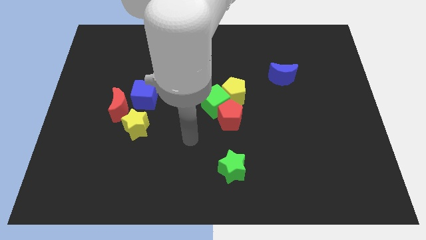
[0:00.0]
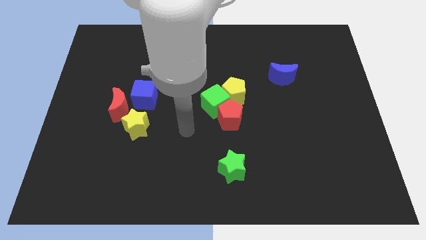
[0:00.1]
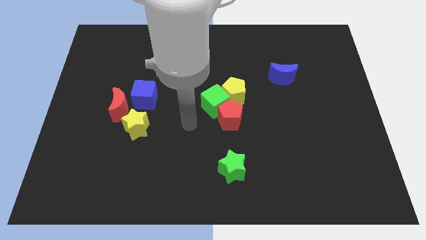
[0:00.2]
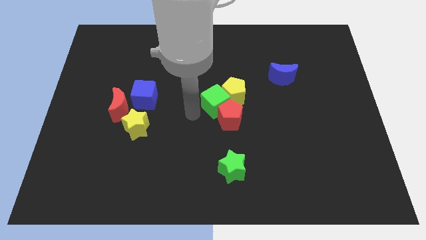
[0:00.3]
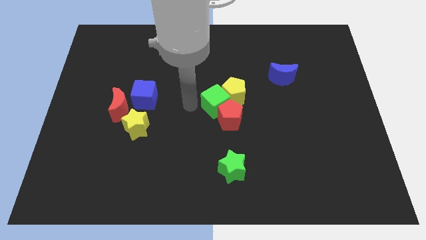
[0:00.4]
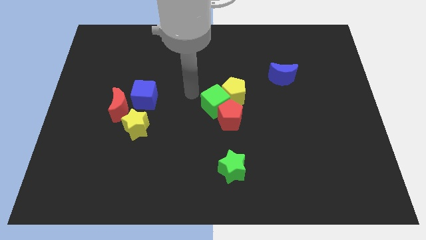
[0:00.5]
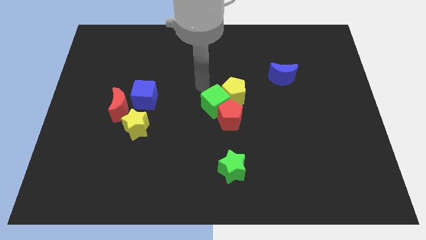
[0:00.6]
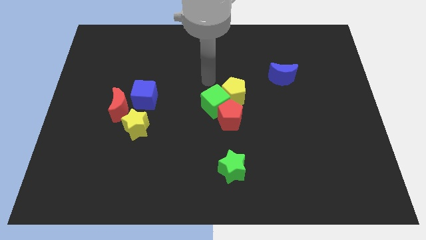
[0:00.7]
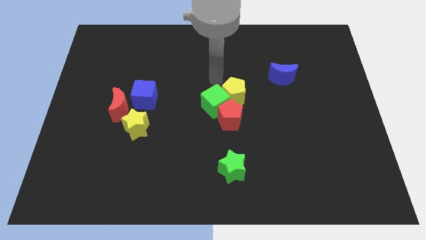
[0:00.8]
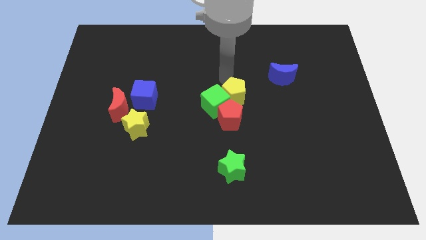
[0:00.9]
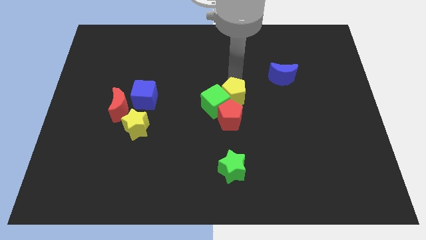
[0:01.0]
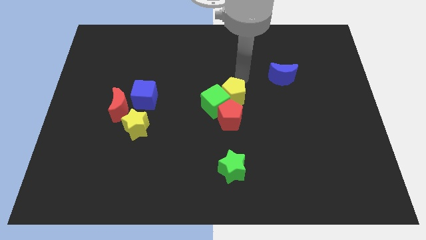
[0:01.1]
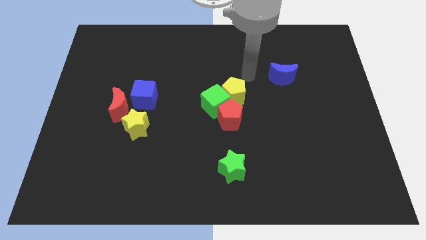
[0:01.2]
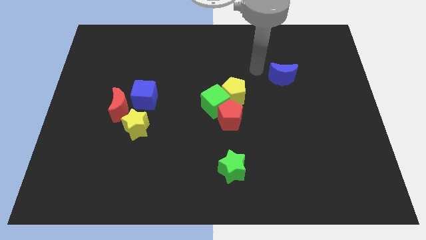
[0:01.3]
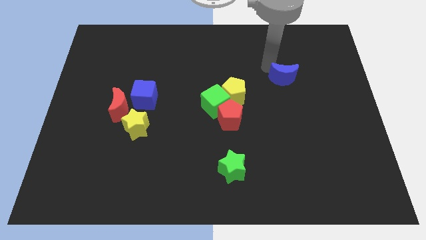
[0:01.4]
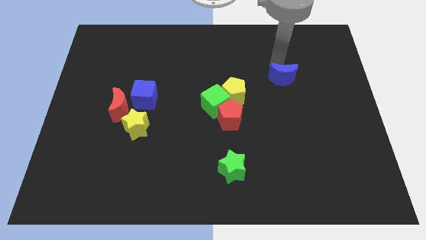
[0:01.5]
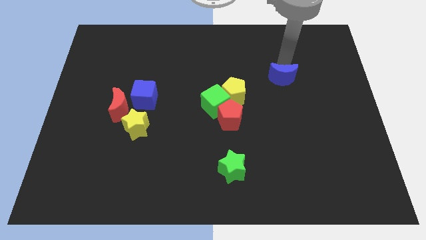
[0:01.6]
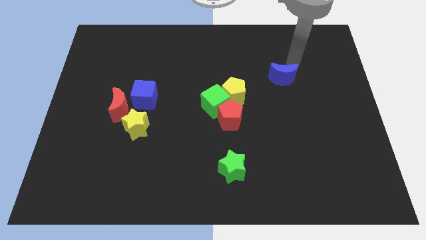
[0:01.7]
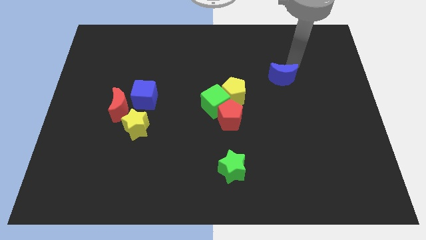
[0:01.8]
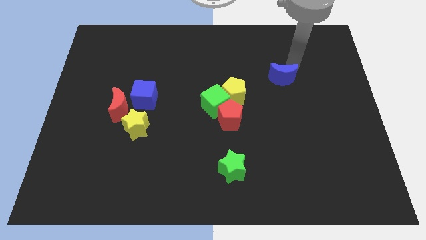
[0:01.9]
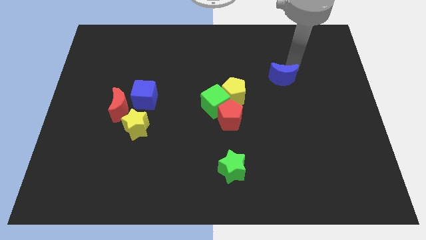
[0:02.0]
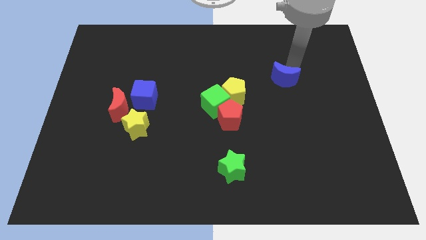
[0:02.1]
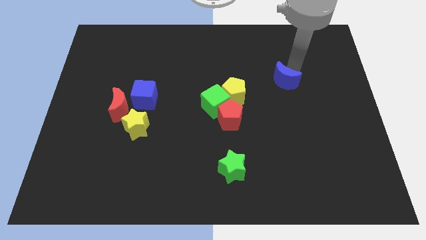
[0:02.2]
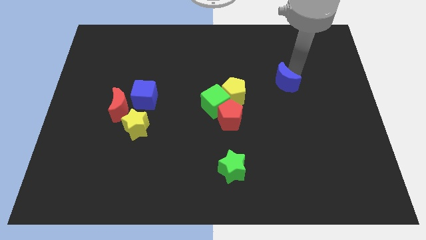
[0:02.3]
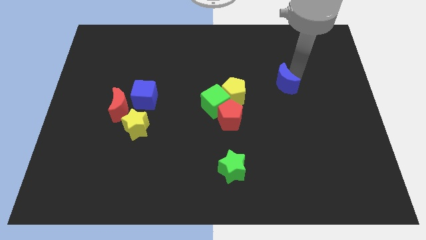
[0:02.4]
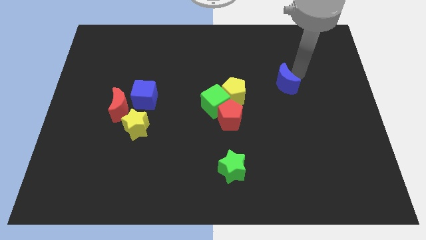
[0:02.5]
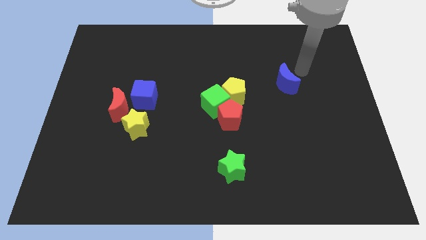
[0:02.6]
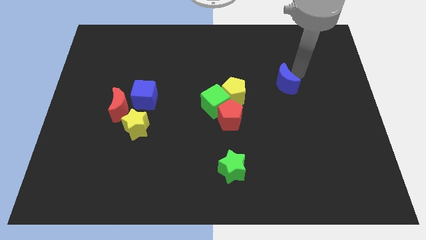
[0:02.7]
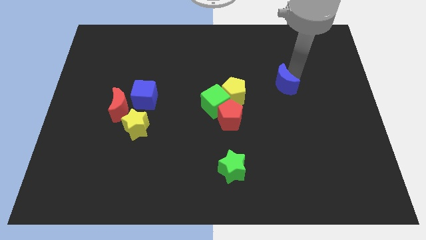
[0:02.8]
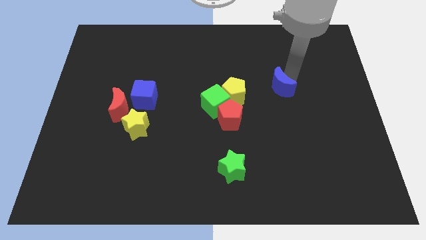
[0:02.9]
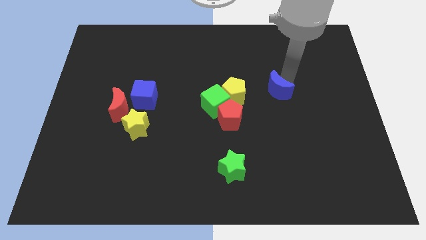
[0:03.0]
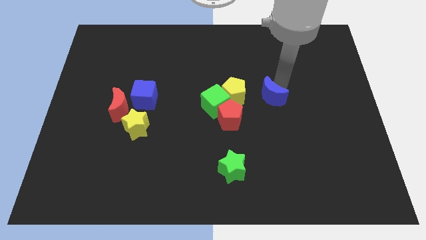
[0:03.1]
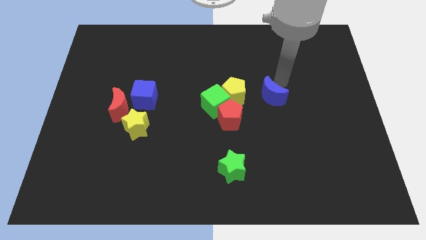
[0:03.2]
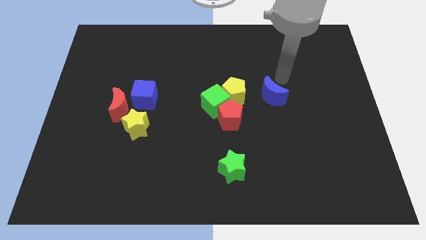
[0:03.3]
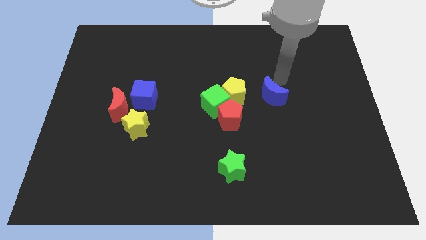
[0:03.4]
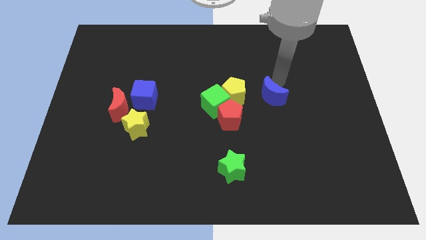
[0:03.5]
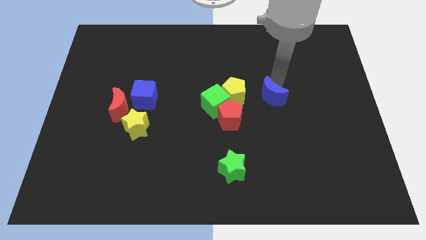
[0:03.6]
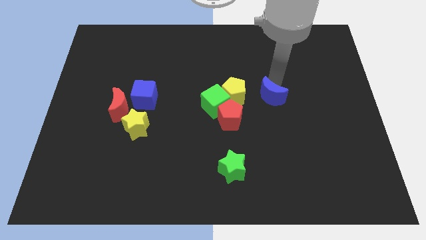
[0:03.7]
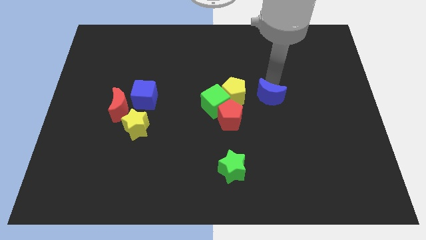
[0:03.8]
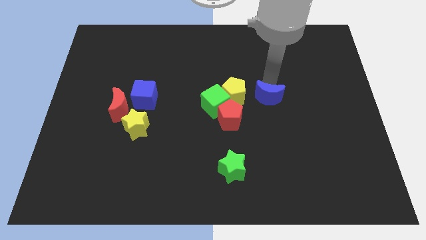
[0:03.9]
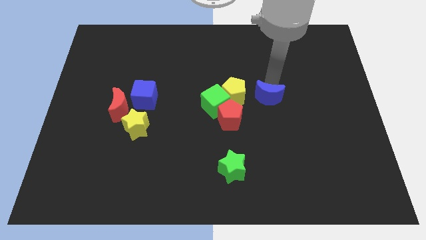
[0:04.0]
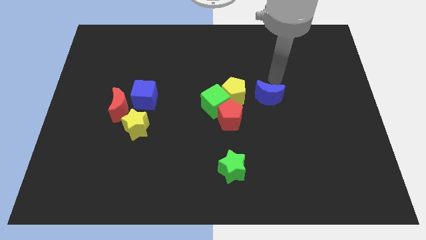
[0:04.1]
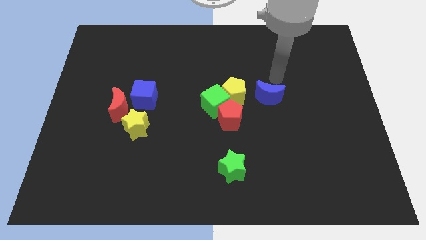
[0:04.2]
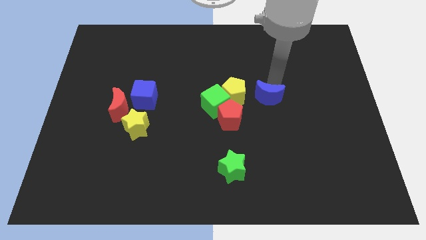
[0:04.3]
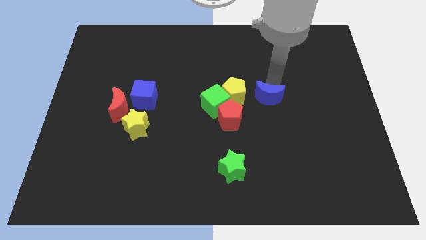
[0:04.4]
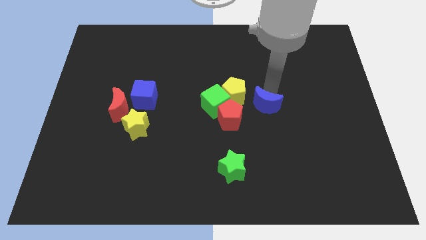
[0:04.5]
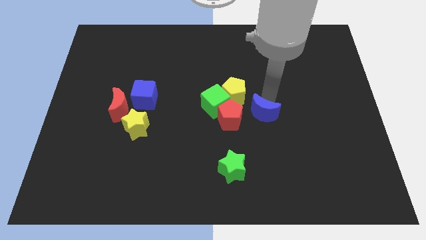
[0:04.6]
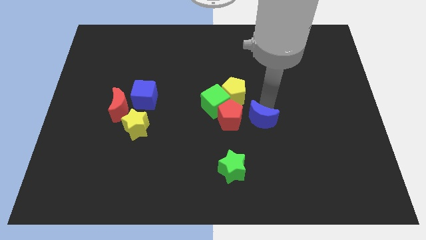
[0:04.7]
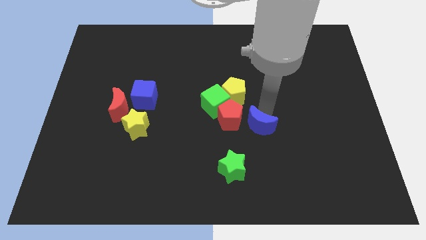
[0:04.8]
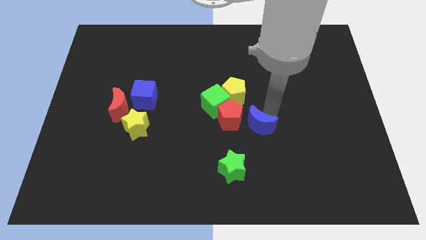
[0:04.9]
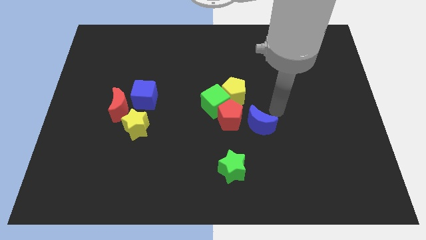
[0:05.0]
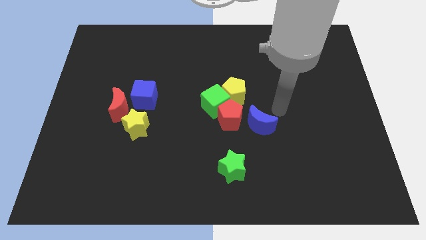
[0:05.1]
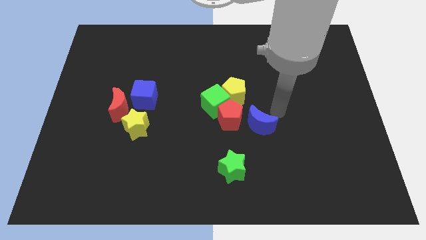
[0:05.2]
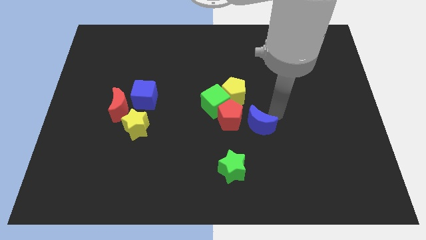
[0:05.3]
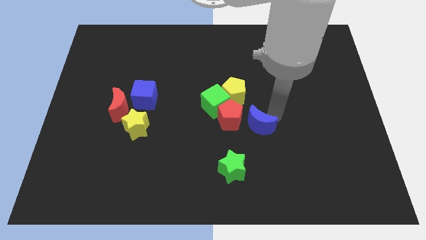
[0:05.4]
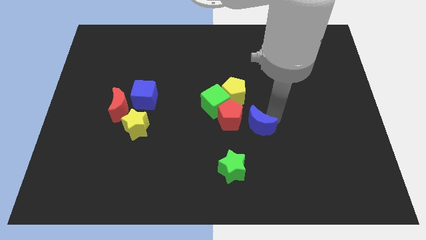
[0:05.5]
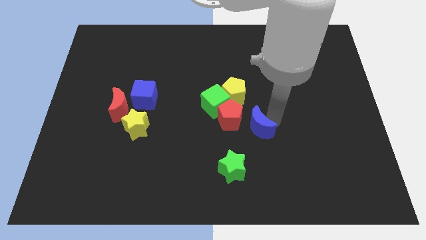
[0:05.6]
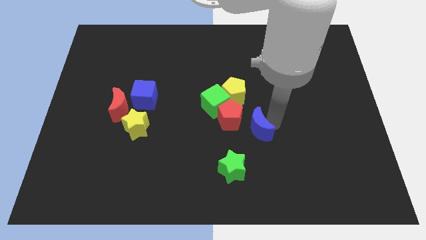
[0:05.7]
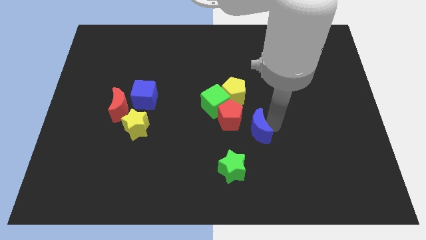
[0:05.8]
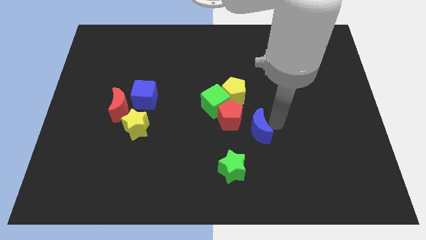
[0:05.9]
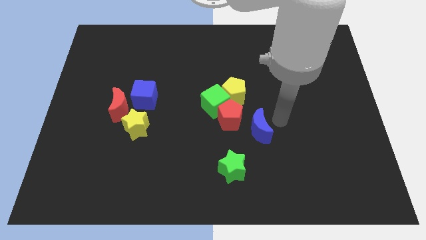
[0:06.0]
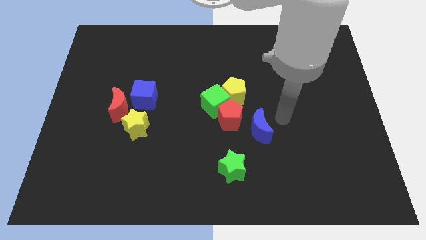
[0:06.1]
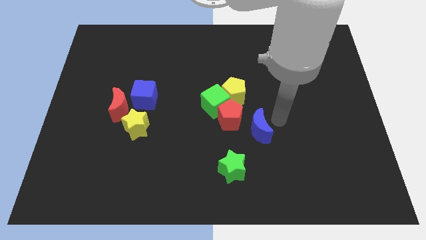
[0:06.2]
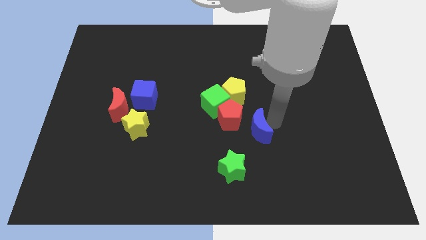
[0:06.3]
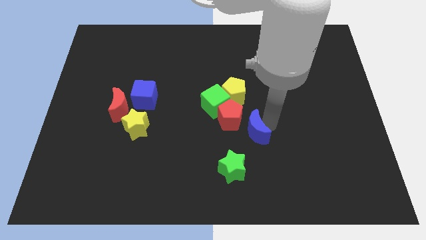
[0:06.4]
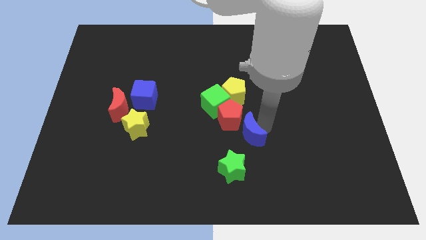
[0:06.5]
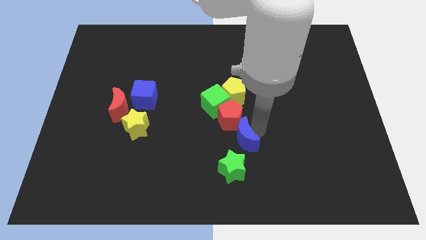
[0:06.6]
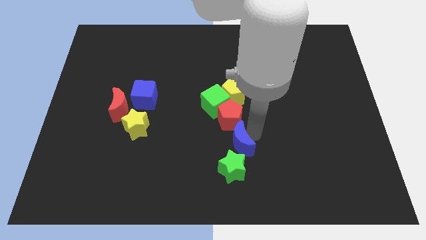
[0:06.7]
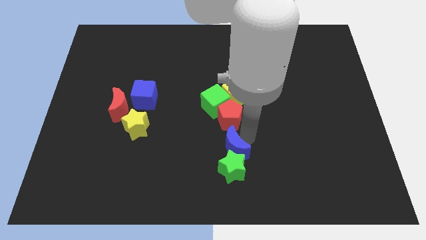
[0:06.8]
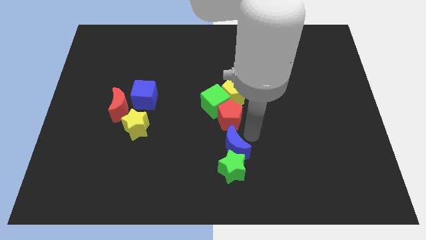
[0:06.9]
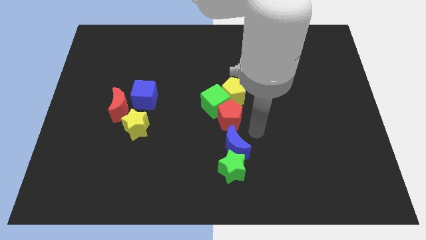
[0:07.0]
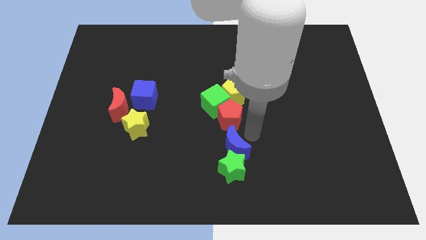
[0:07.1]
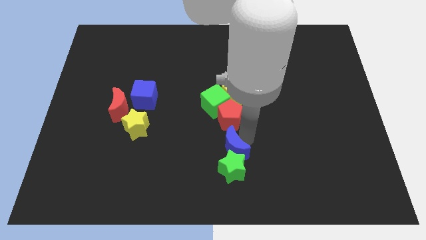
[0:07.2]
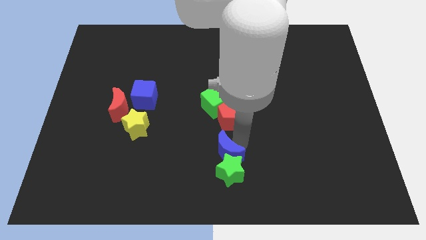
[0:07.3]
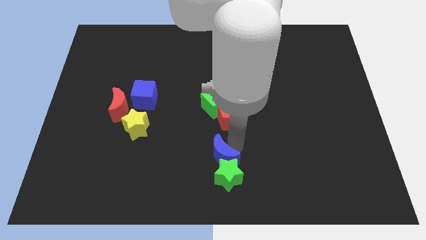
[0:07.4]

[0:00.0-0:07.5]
move the blue moon to the bottom side
